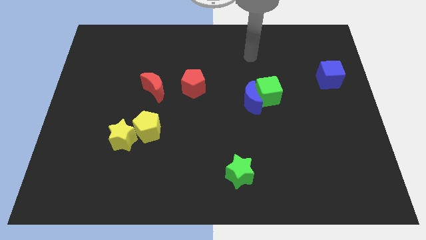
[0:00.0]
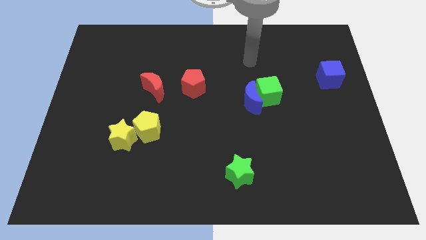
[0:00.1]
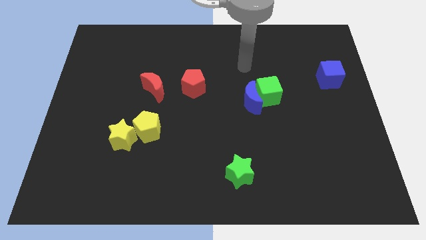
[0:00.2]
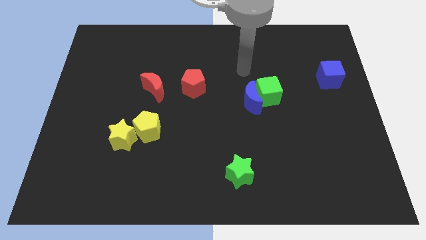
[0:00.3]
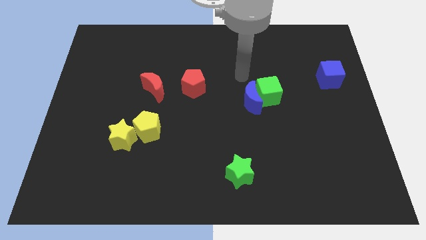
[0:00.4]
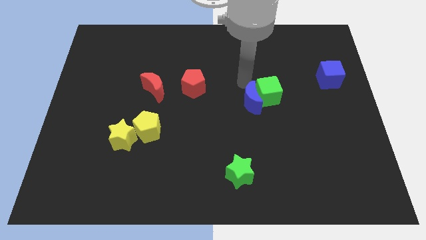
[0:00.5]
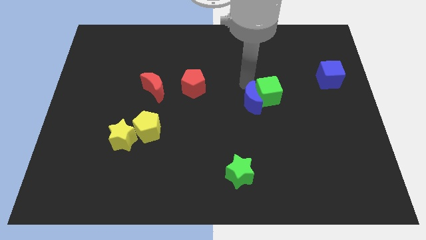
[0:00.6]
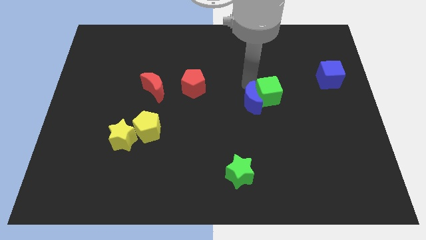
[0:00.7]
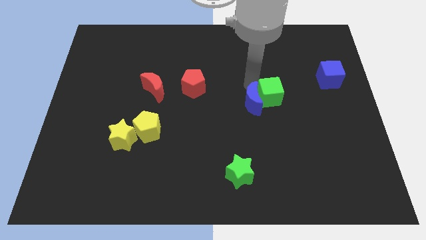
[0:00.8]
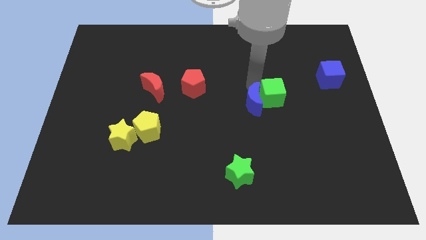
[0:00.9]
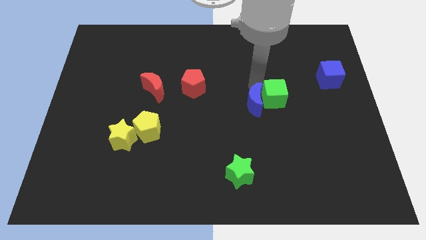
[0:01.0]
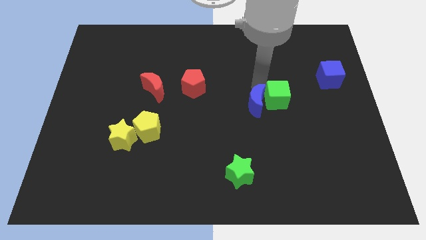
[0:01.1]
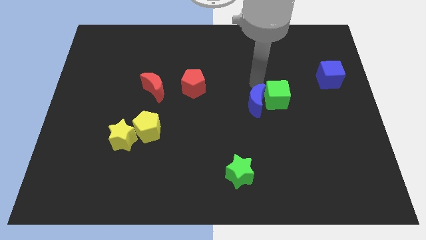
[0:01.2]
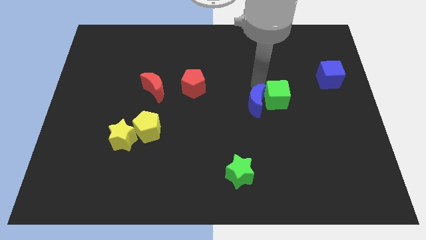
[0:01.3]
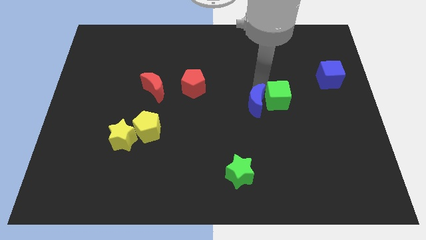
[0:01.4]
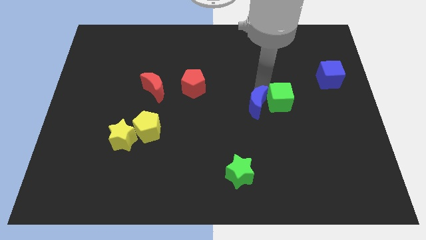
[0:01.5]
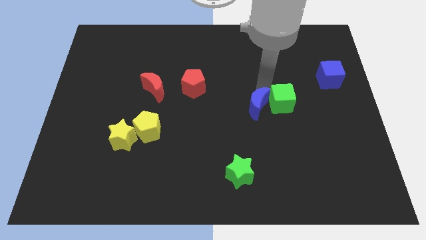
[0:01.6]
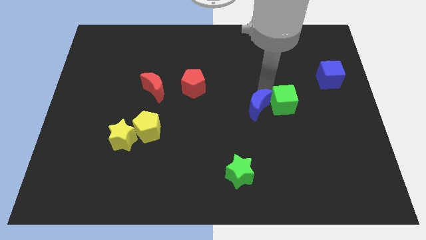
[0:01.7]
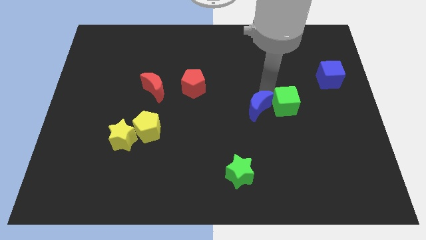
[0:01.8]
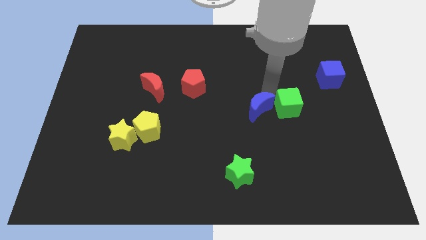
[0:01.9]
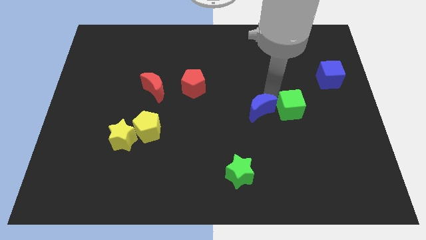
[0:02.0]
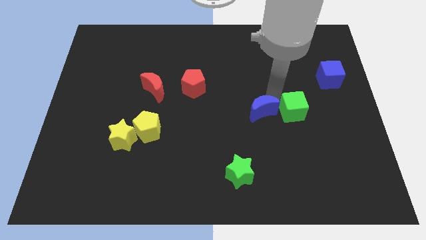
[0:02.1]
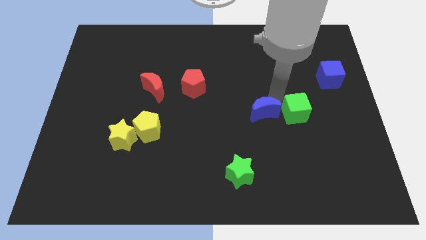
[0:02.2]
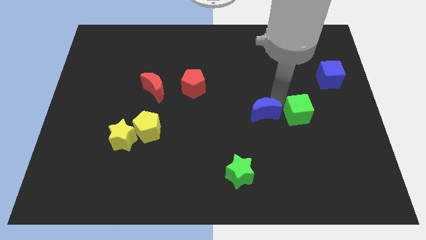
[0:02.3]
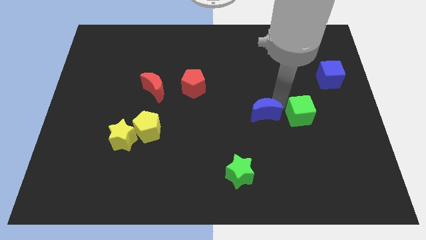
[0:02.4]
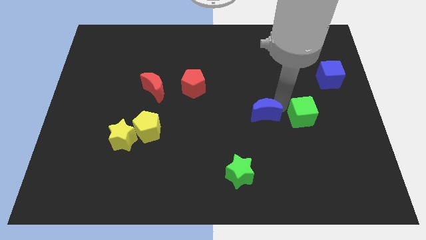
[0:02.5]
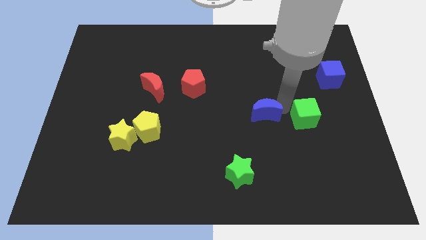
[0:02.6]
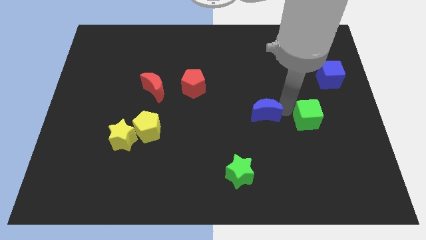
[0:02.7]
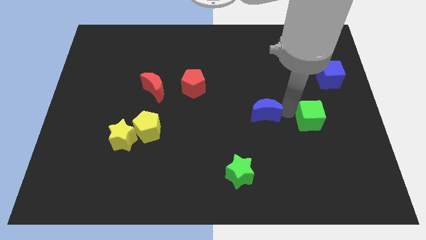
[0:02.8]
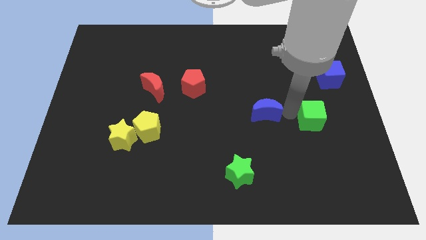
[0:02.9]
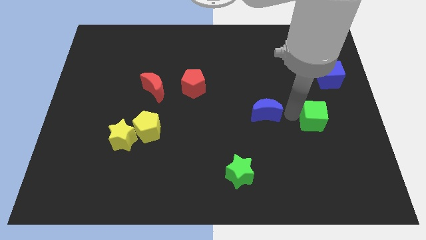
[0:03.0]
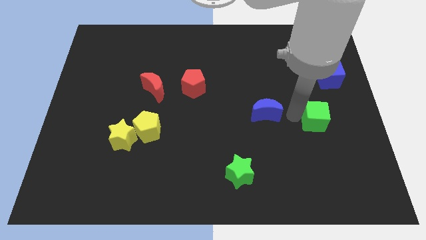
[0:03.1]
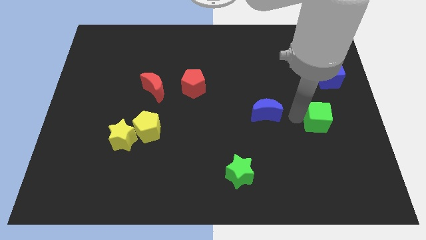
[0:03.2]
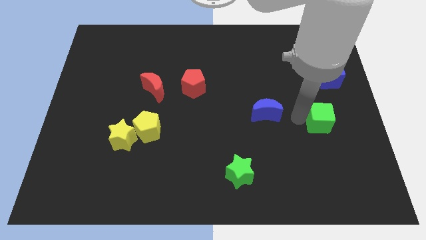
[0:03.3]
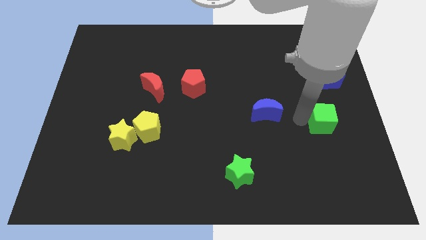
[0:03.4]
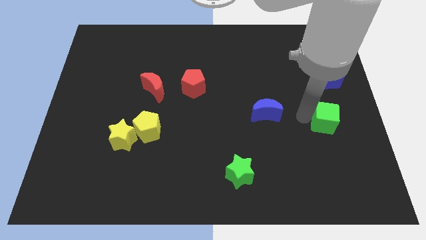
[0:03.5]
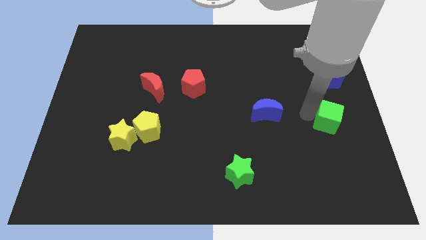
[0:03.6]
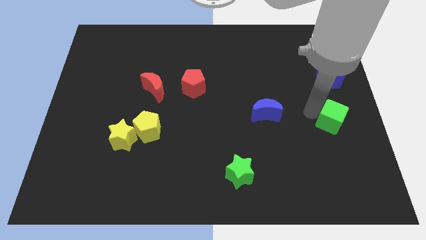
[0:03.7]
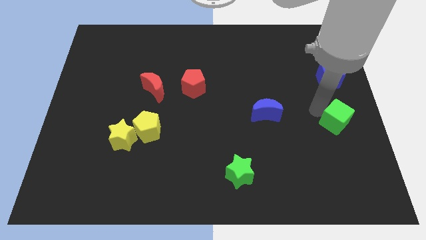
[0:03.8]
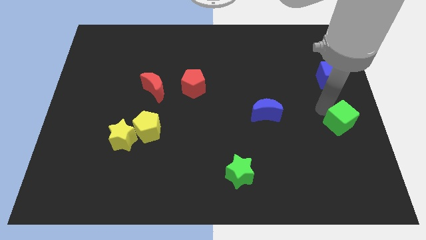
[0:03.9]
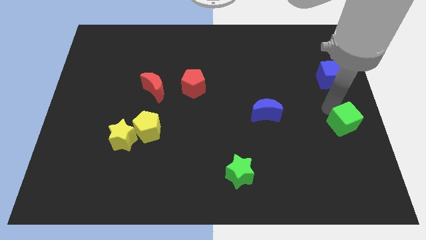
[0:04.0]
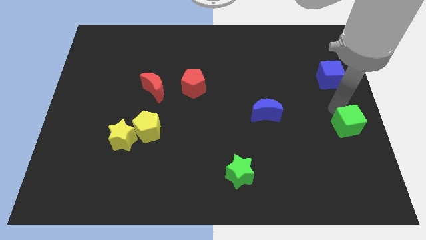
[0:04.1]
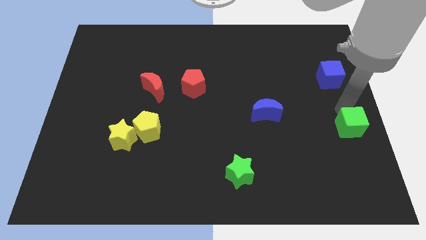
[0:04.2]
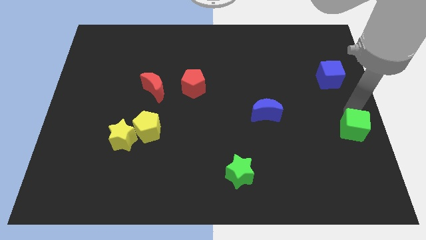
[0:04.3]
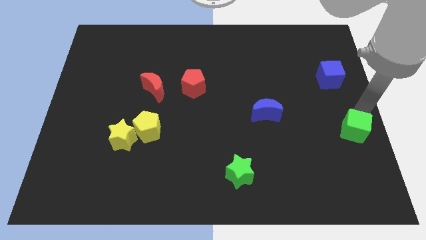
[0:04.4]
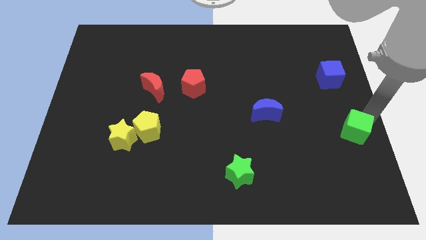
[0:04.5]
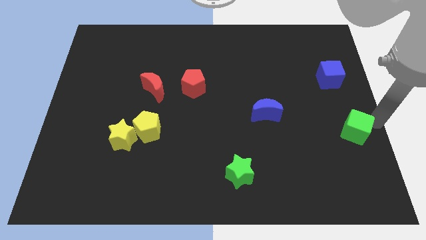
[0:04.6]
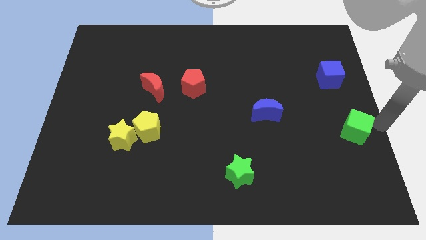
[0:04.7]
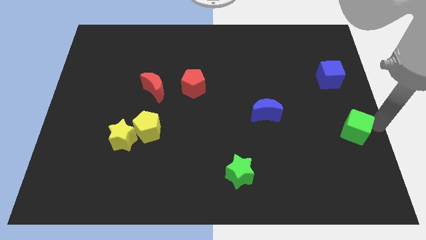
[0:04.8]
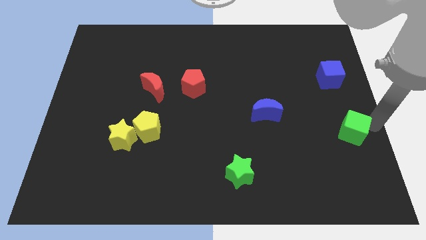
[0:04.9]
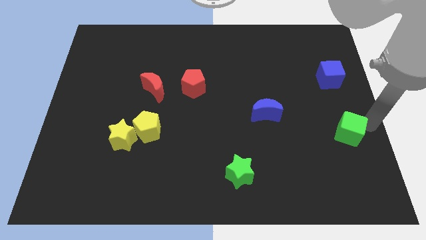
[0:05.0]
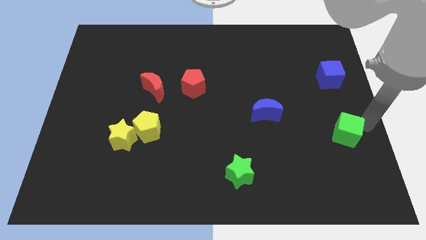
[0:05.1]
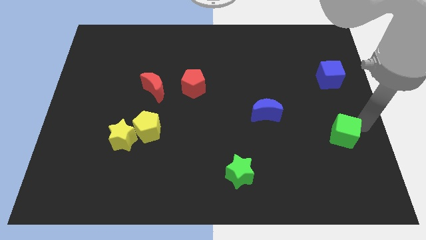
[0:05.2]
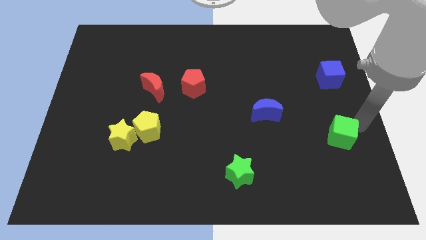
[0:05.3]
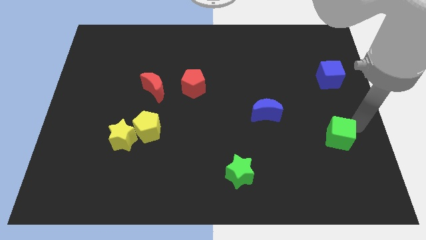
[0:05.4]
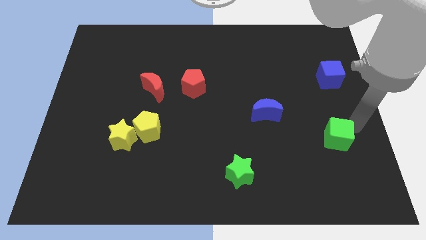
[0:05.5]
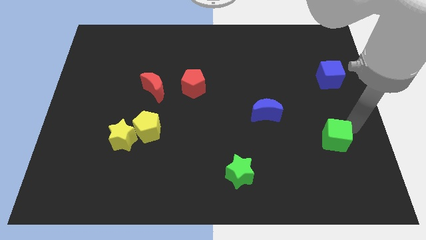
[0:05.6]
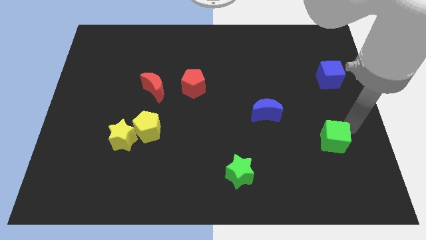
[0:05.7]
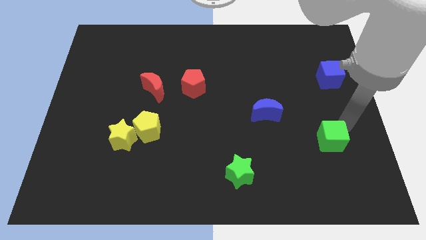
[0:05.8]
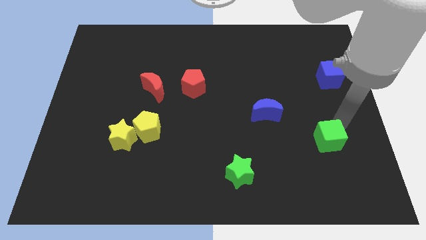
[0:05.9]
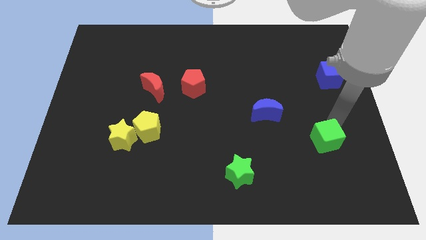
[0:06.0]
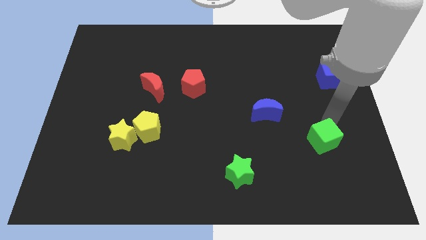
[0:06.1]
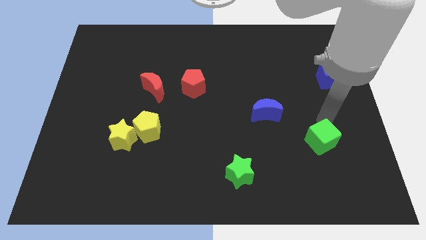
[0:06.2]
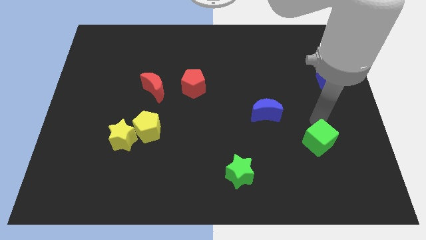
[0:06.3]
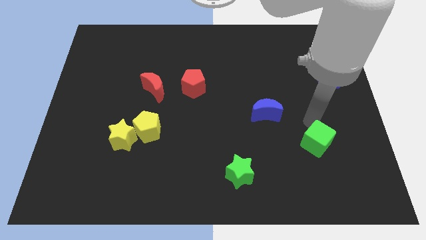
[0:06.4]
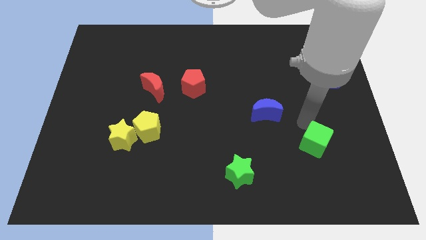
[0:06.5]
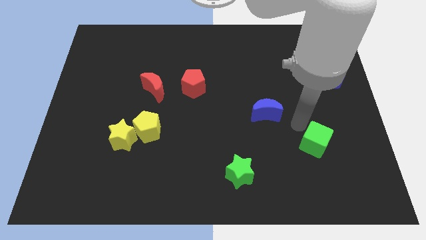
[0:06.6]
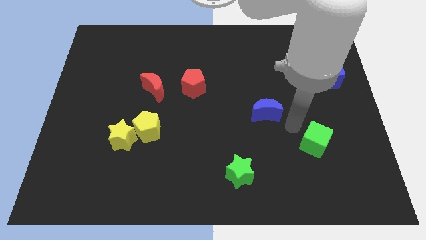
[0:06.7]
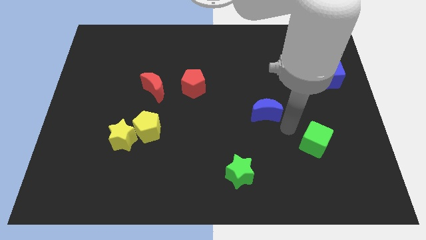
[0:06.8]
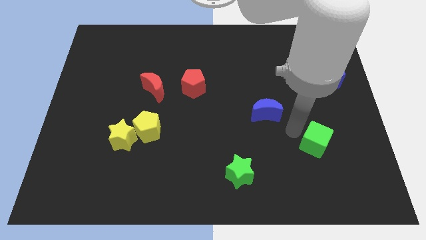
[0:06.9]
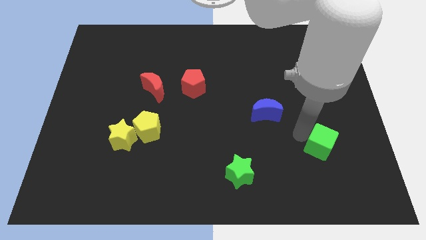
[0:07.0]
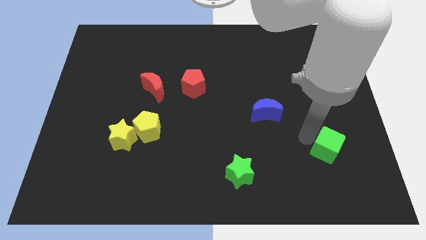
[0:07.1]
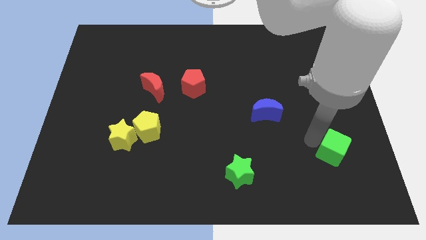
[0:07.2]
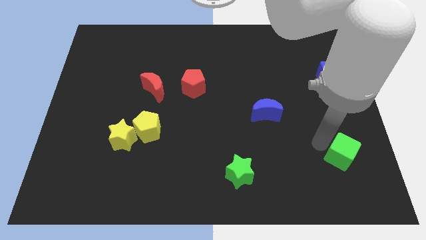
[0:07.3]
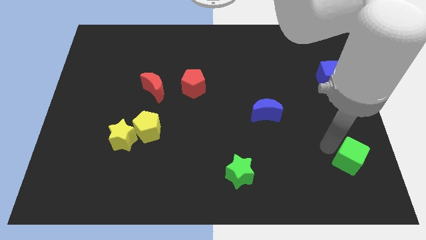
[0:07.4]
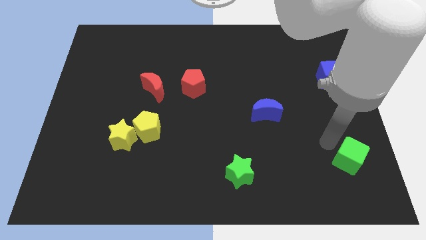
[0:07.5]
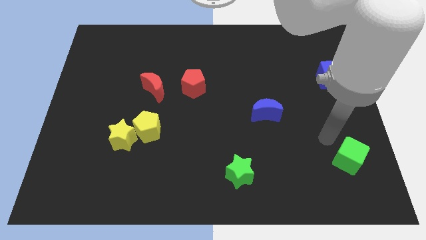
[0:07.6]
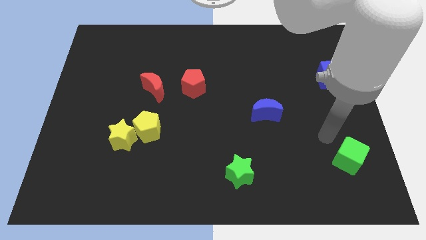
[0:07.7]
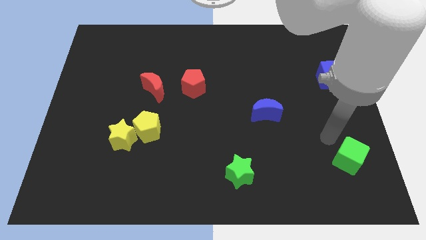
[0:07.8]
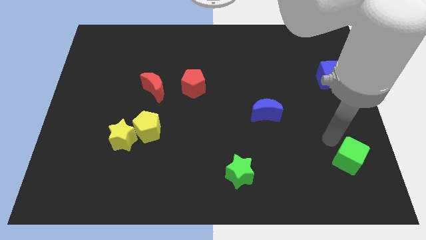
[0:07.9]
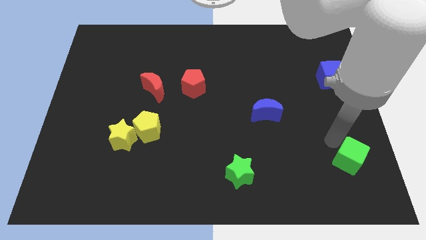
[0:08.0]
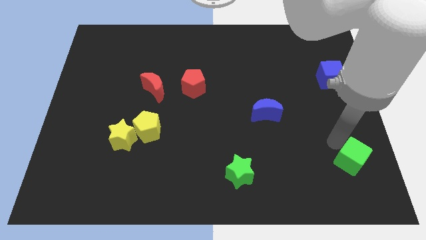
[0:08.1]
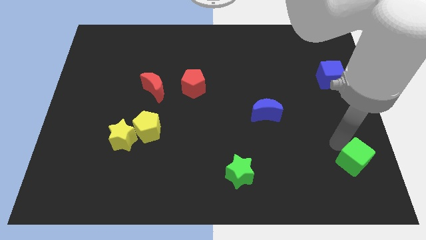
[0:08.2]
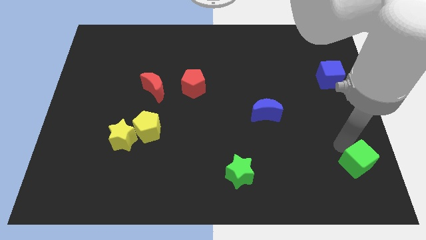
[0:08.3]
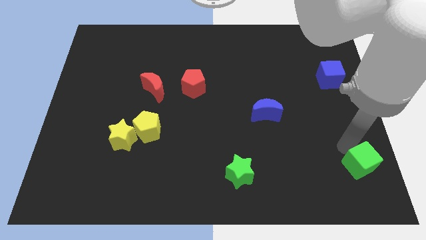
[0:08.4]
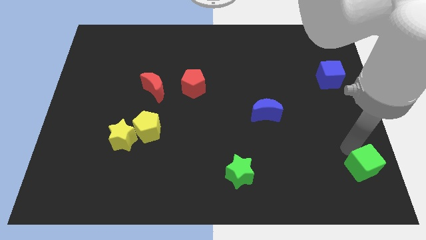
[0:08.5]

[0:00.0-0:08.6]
put the green cube to the bottom right corner
